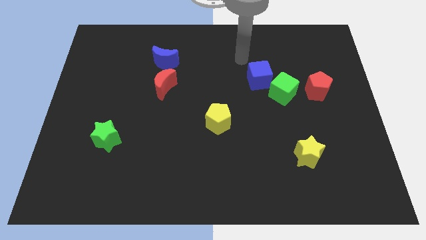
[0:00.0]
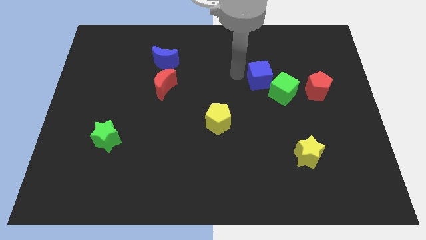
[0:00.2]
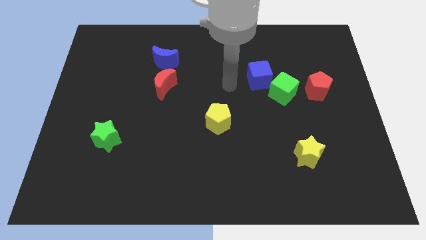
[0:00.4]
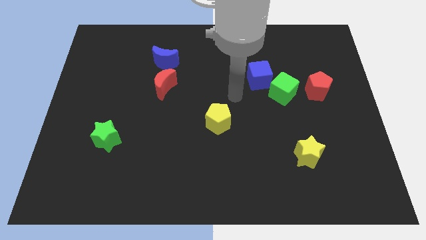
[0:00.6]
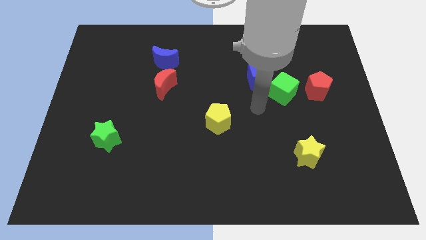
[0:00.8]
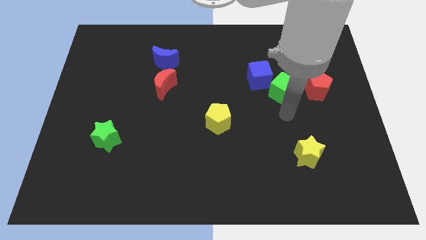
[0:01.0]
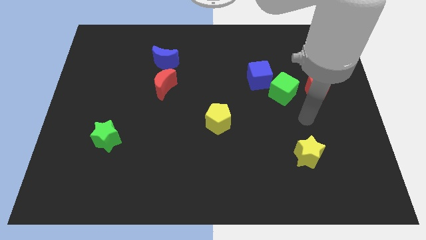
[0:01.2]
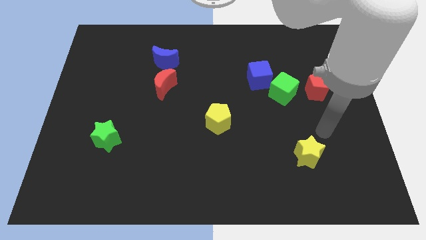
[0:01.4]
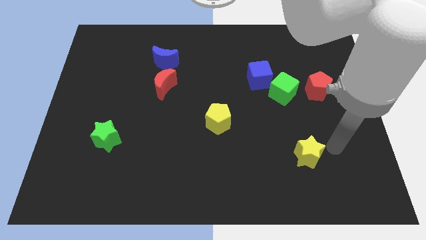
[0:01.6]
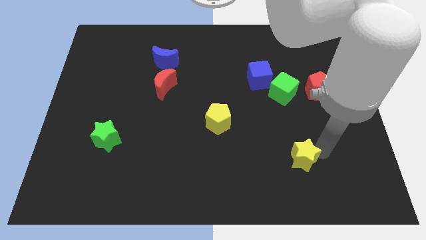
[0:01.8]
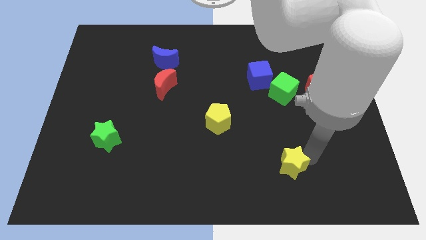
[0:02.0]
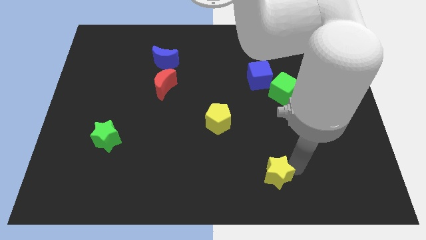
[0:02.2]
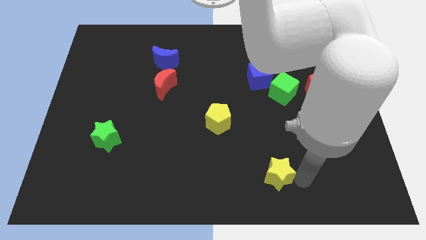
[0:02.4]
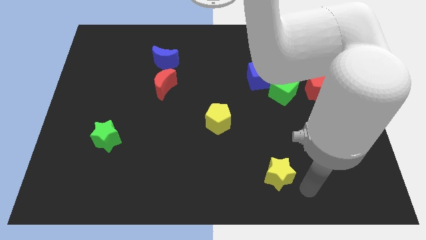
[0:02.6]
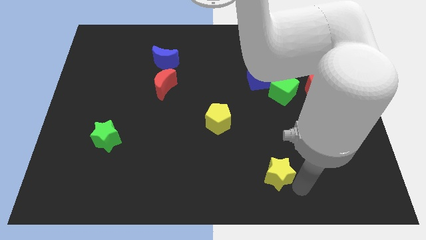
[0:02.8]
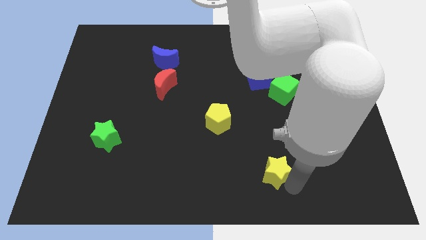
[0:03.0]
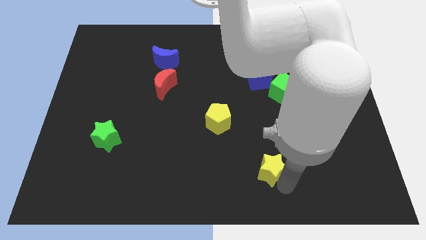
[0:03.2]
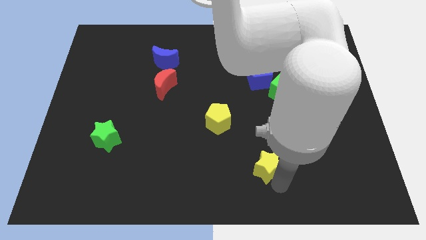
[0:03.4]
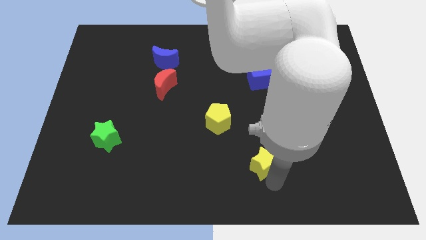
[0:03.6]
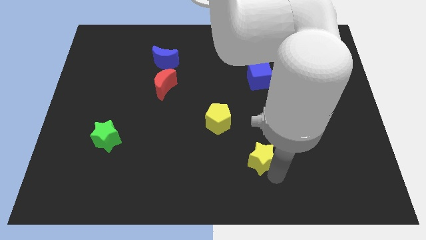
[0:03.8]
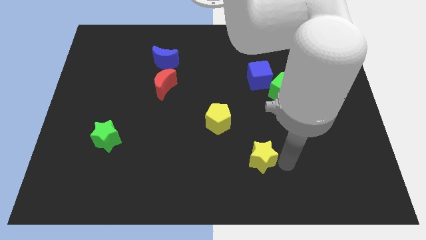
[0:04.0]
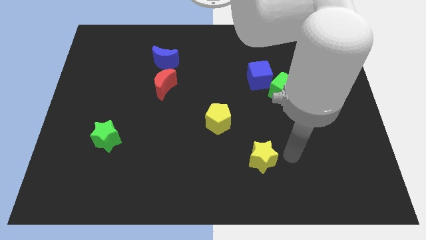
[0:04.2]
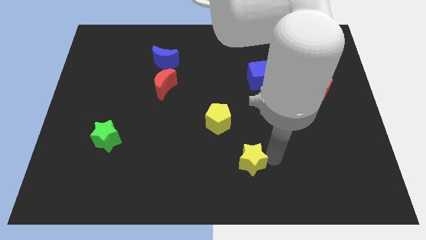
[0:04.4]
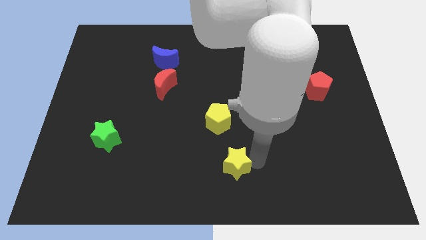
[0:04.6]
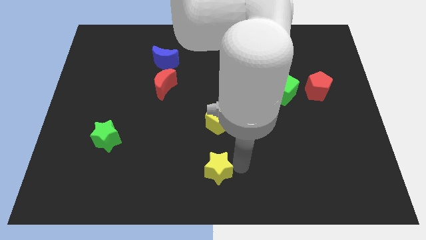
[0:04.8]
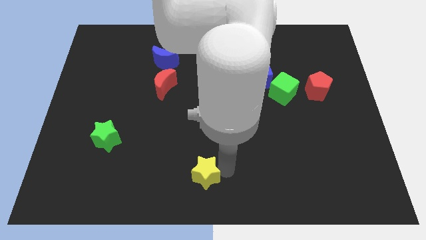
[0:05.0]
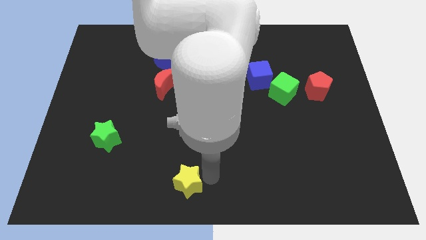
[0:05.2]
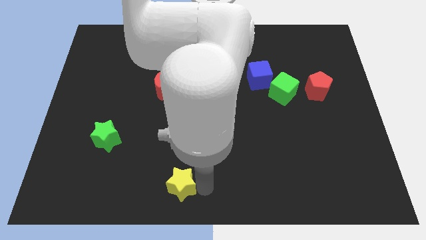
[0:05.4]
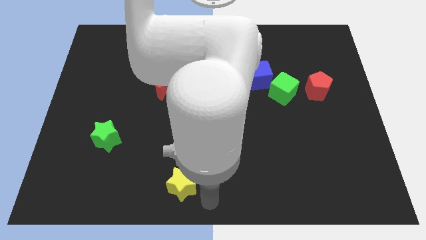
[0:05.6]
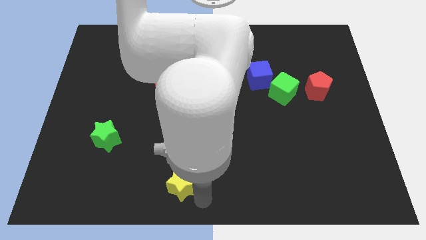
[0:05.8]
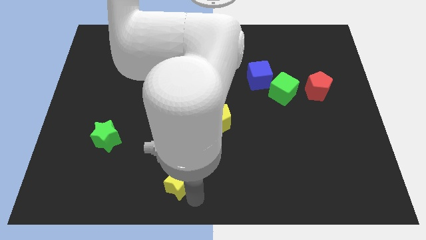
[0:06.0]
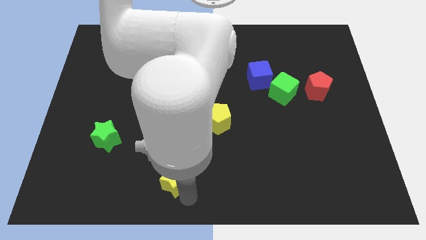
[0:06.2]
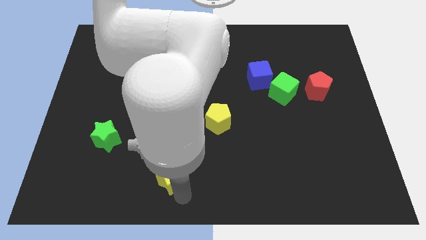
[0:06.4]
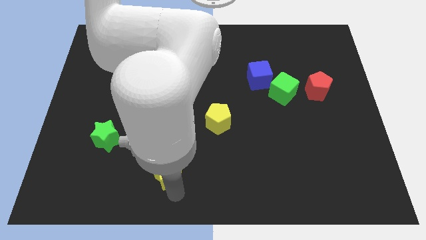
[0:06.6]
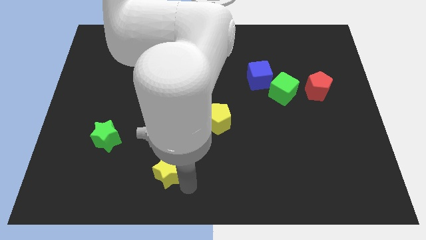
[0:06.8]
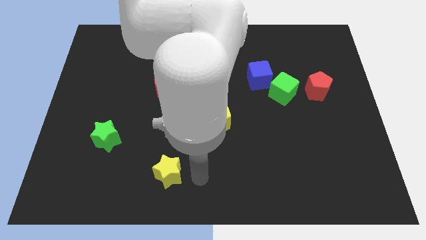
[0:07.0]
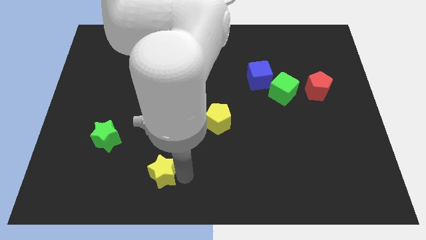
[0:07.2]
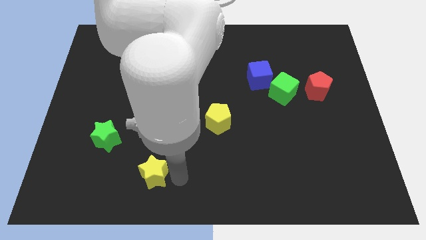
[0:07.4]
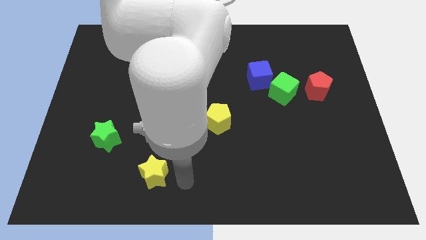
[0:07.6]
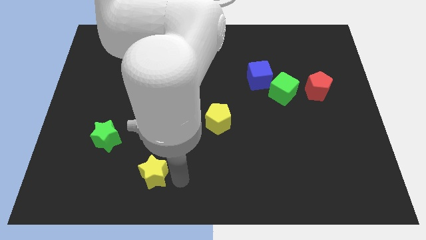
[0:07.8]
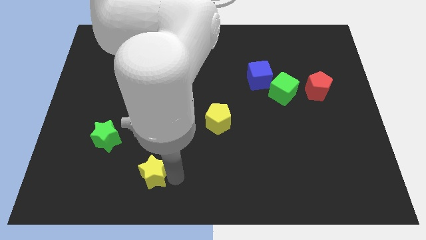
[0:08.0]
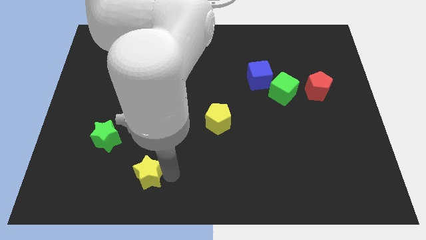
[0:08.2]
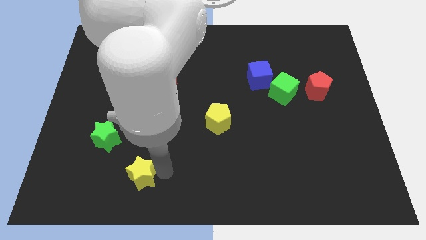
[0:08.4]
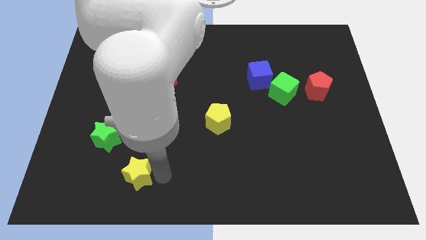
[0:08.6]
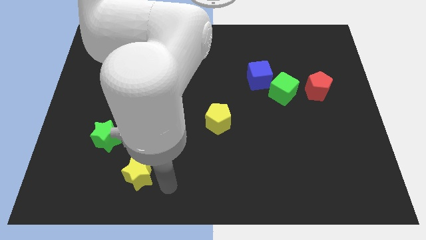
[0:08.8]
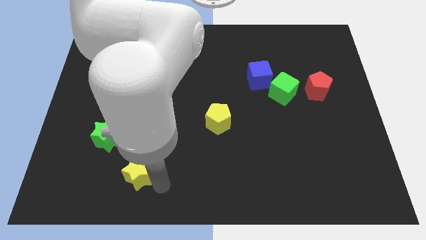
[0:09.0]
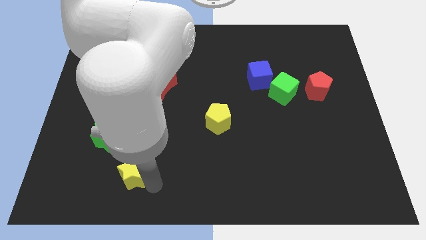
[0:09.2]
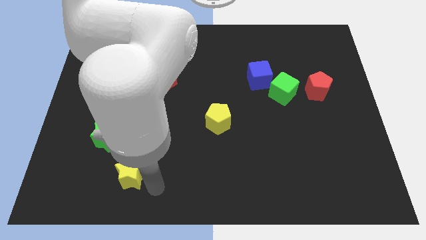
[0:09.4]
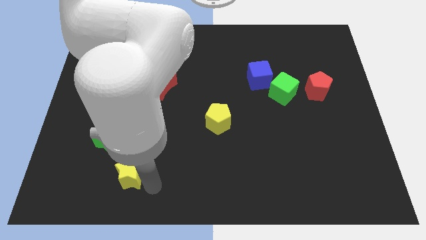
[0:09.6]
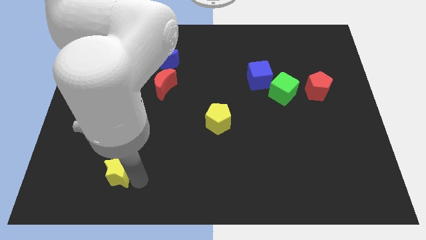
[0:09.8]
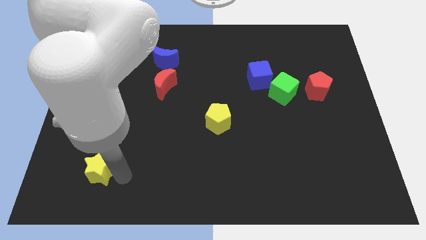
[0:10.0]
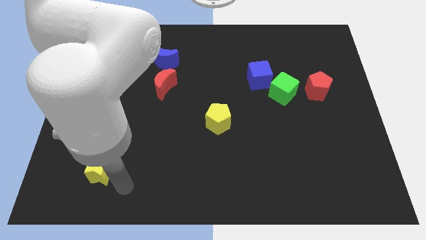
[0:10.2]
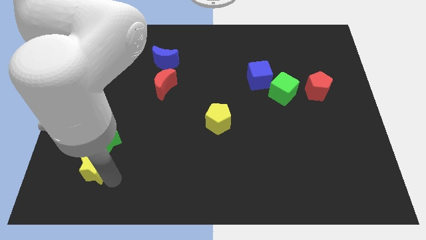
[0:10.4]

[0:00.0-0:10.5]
push the yellow star to the bottom left side of the green star

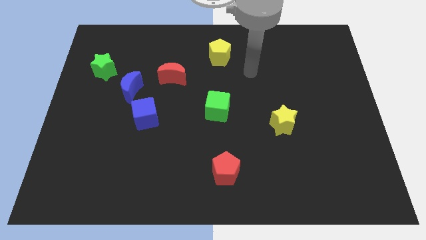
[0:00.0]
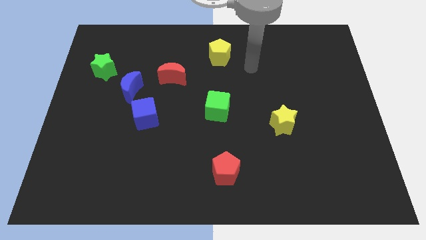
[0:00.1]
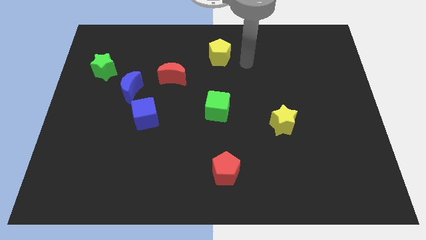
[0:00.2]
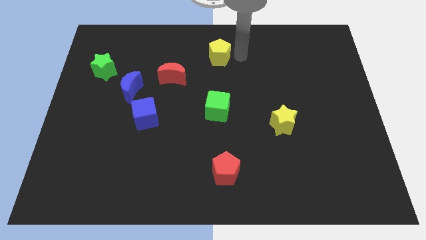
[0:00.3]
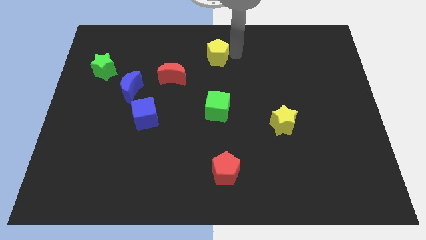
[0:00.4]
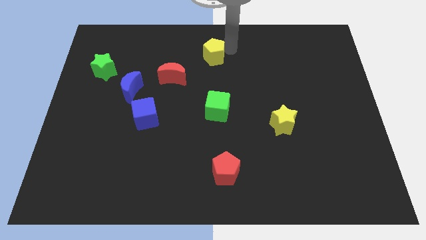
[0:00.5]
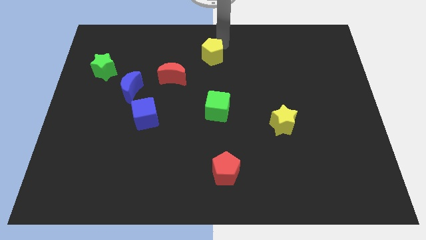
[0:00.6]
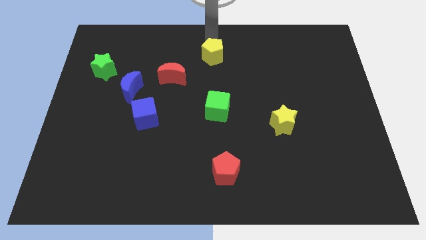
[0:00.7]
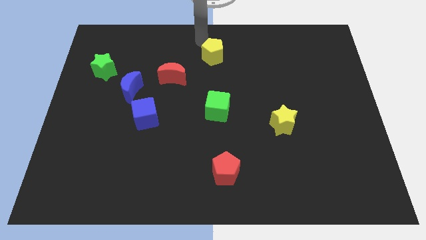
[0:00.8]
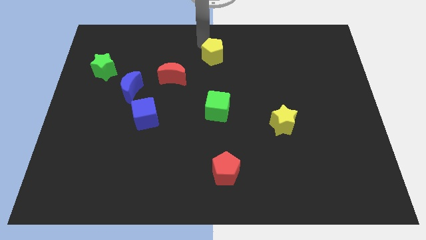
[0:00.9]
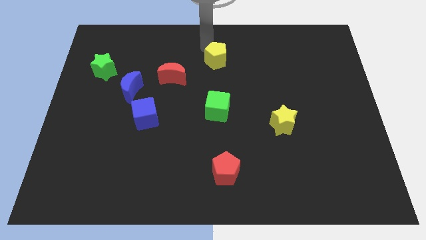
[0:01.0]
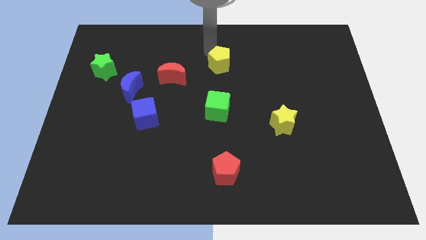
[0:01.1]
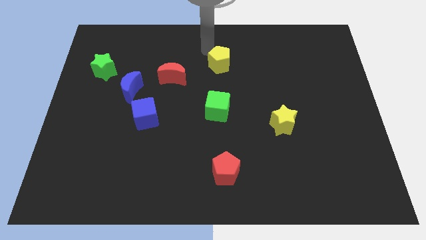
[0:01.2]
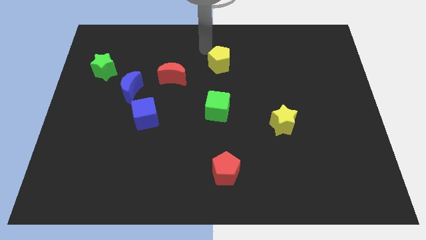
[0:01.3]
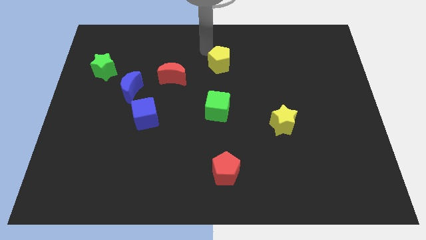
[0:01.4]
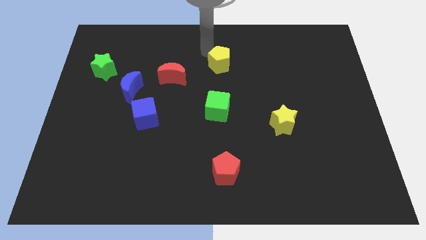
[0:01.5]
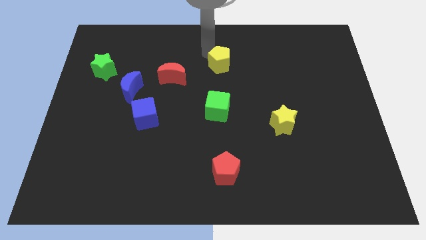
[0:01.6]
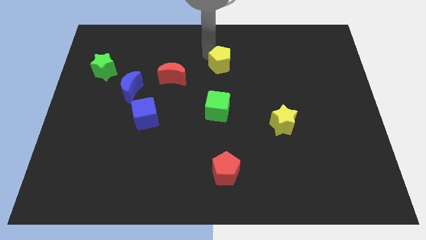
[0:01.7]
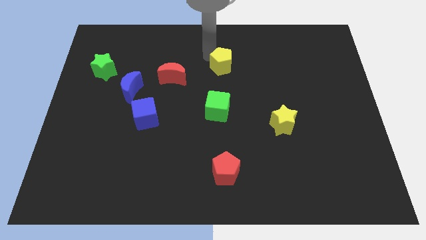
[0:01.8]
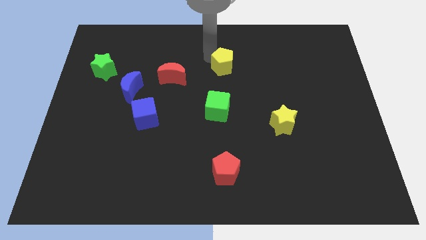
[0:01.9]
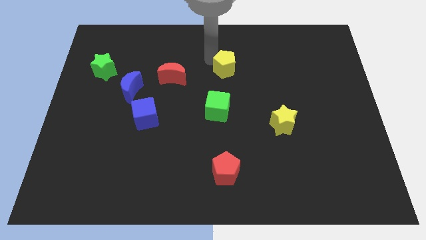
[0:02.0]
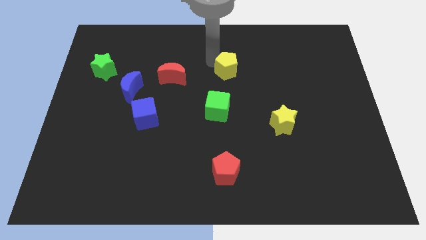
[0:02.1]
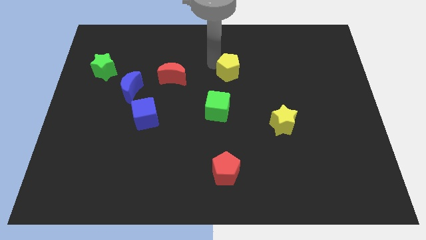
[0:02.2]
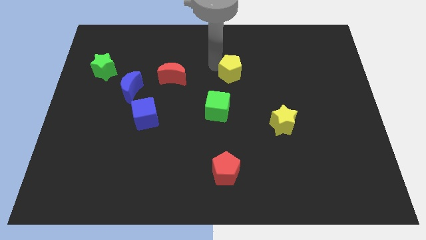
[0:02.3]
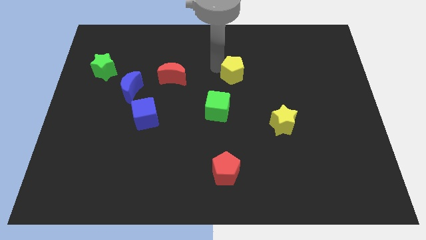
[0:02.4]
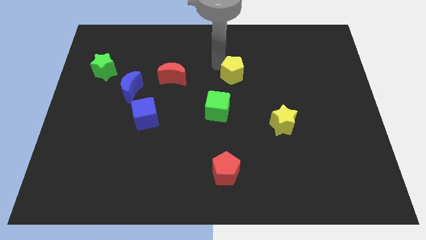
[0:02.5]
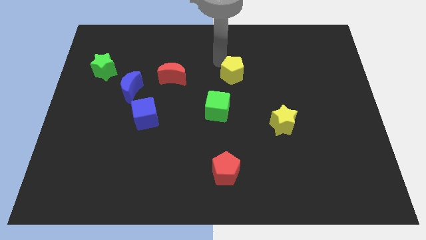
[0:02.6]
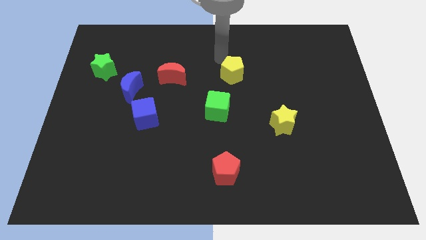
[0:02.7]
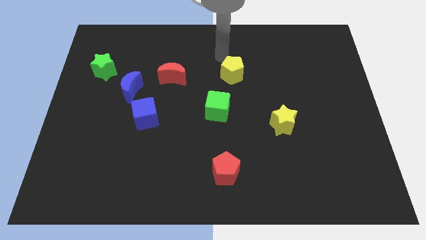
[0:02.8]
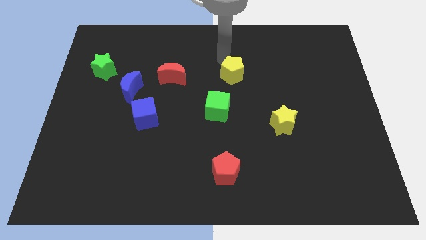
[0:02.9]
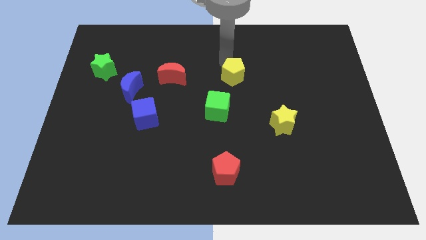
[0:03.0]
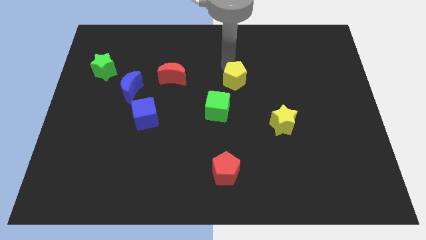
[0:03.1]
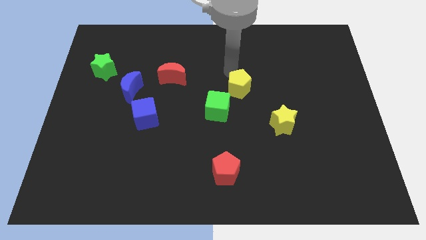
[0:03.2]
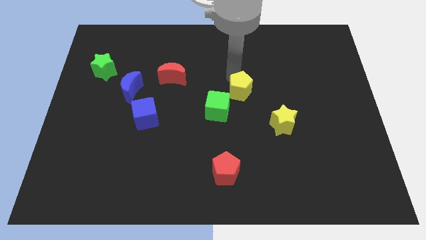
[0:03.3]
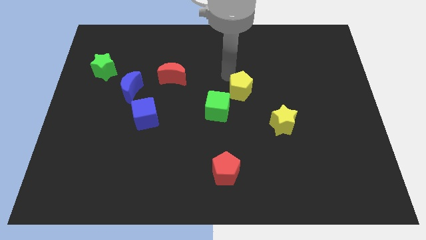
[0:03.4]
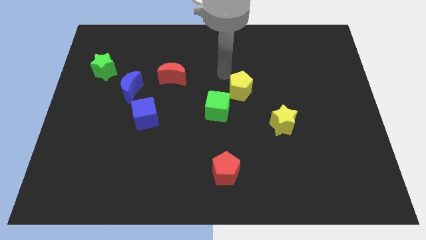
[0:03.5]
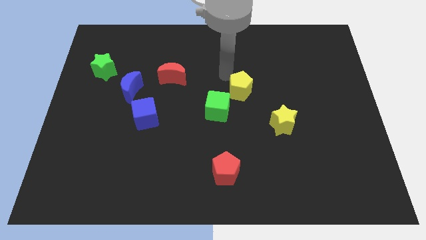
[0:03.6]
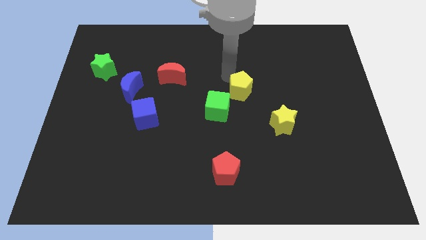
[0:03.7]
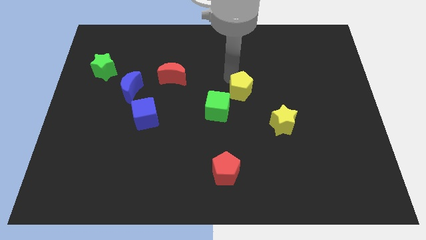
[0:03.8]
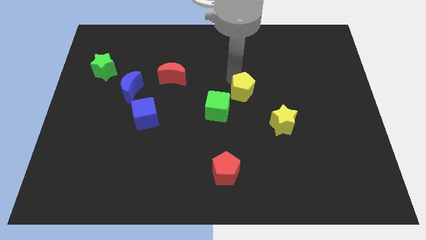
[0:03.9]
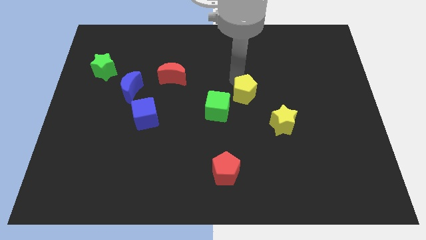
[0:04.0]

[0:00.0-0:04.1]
put the yellow pentagon to the top left side of the yellow star
